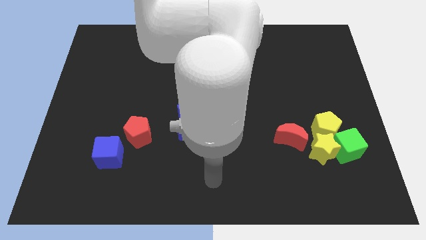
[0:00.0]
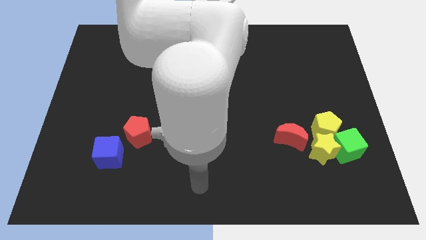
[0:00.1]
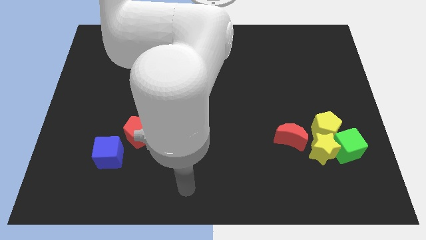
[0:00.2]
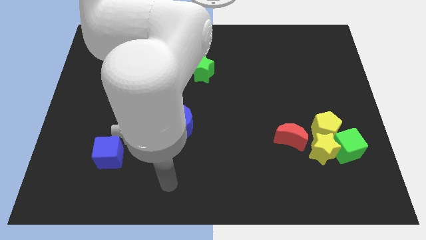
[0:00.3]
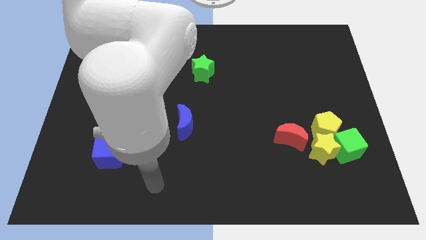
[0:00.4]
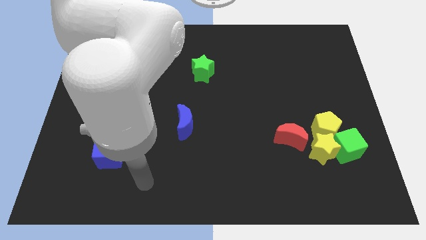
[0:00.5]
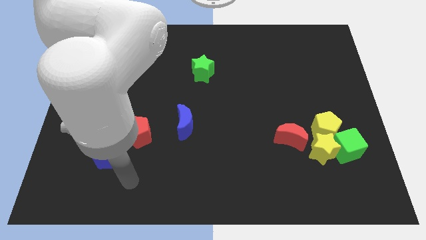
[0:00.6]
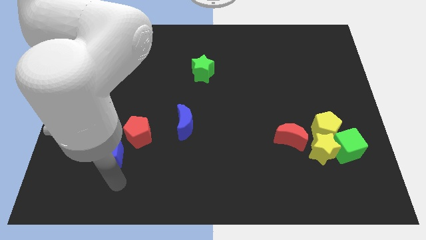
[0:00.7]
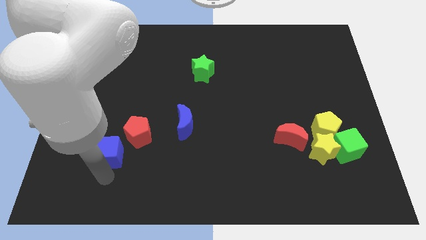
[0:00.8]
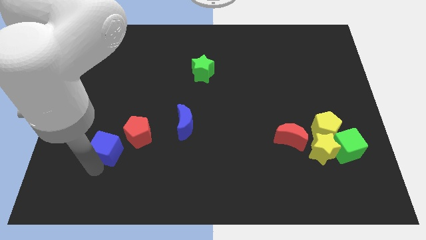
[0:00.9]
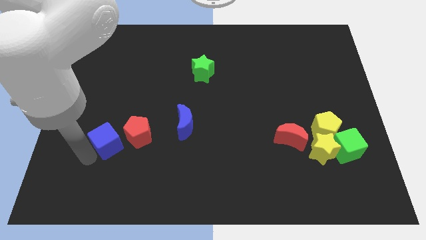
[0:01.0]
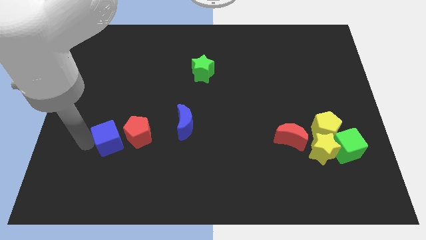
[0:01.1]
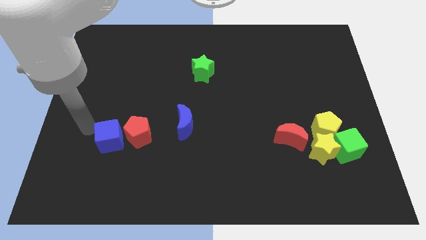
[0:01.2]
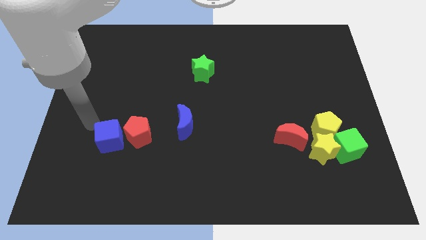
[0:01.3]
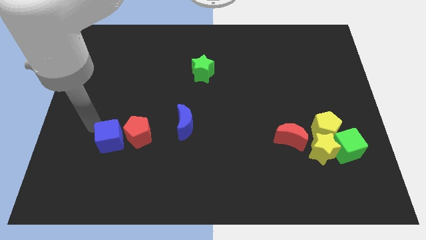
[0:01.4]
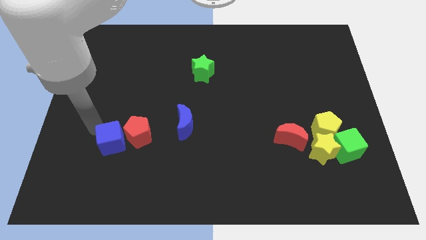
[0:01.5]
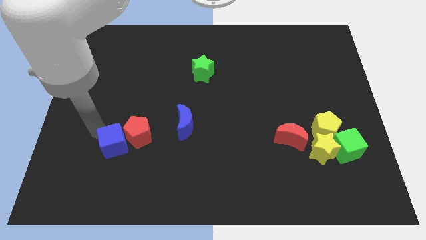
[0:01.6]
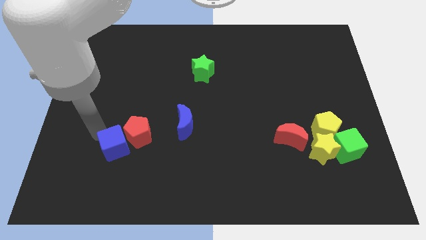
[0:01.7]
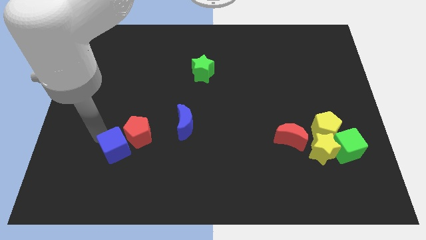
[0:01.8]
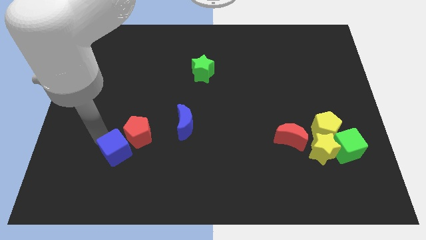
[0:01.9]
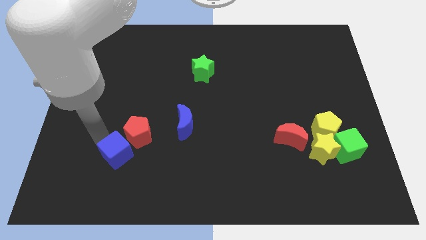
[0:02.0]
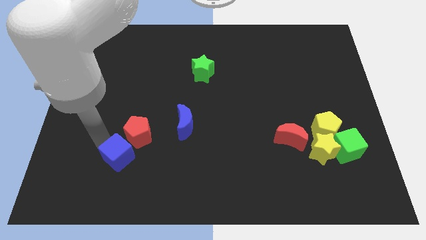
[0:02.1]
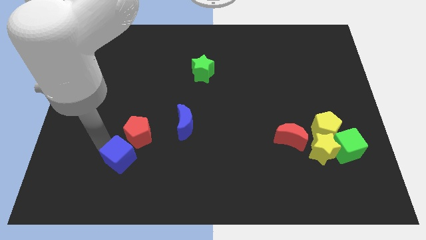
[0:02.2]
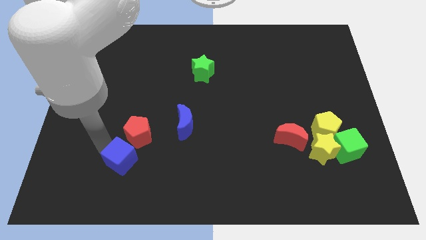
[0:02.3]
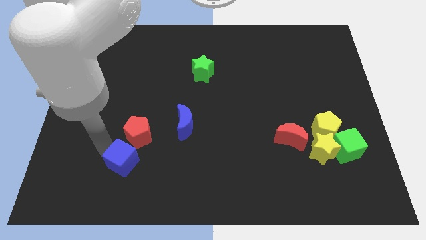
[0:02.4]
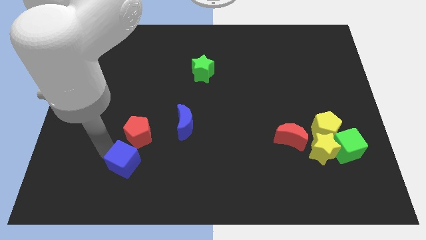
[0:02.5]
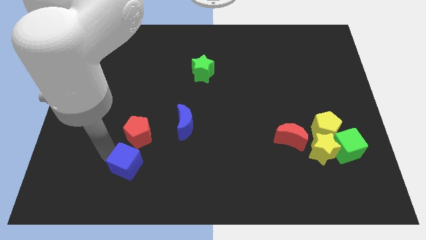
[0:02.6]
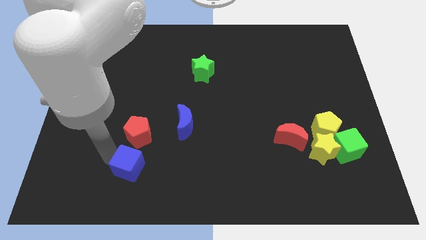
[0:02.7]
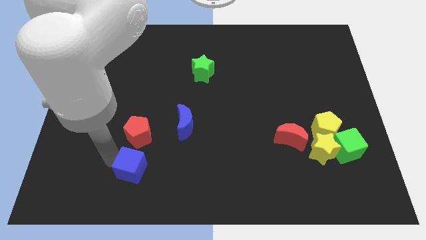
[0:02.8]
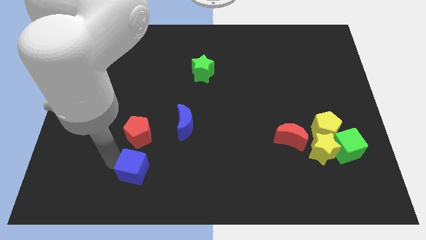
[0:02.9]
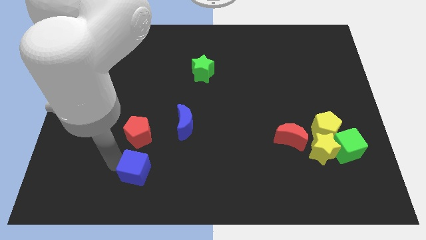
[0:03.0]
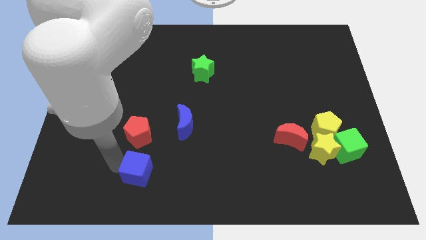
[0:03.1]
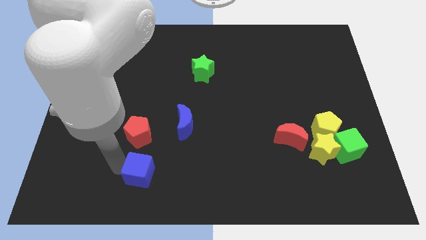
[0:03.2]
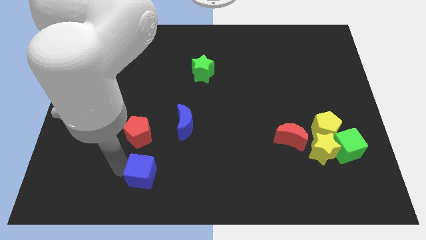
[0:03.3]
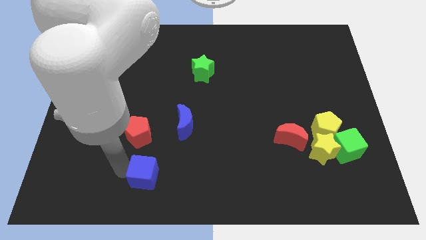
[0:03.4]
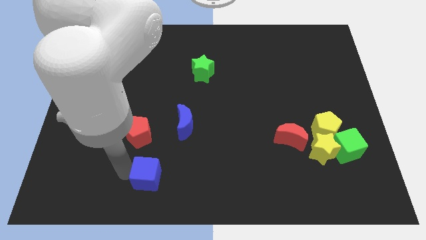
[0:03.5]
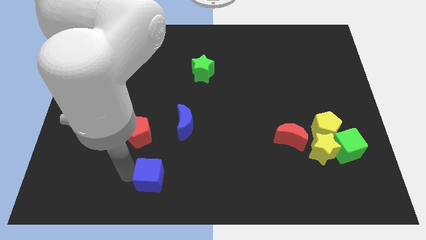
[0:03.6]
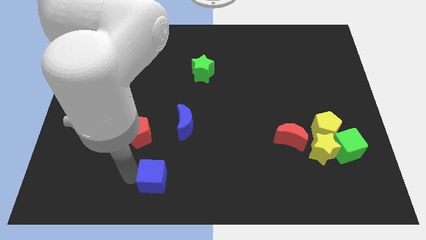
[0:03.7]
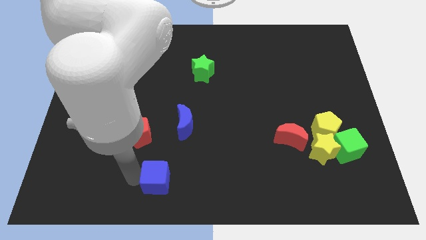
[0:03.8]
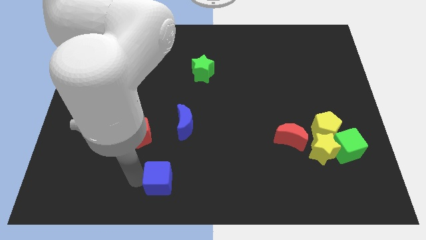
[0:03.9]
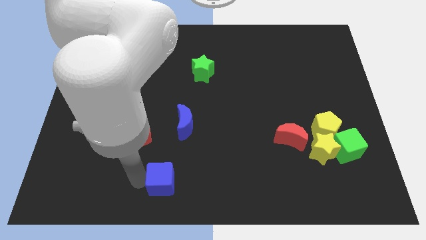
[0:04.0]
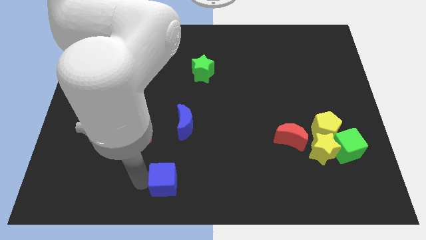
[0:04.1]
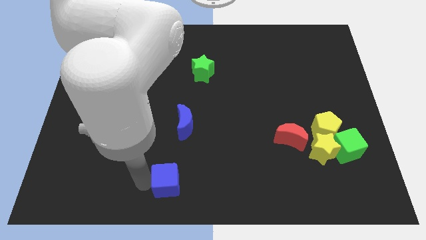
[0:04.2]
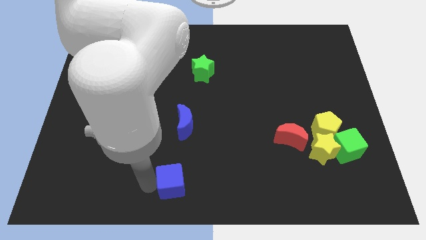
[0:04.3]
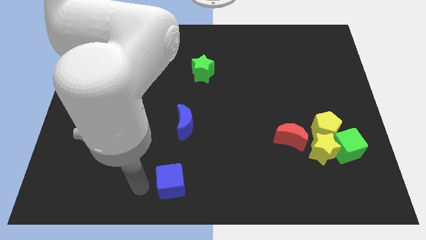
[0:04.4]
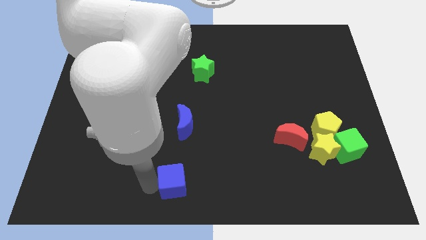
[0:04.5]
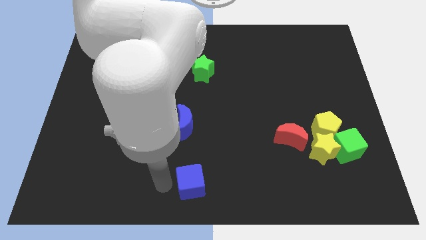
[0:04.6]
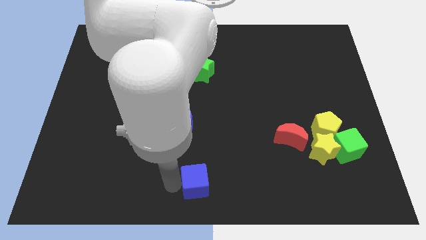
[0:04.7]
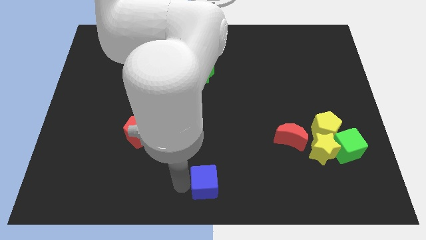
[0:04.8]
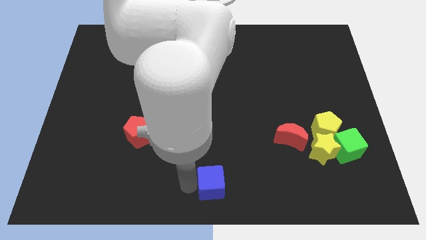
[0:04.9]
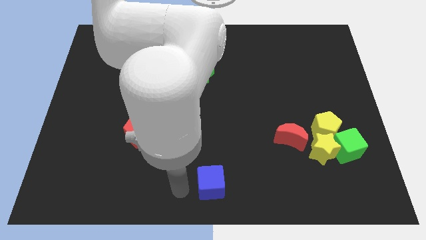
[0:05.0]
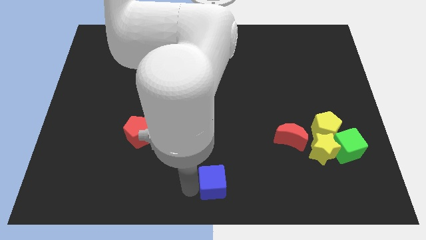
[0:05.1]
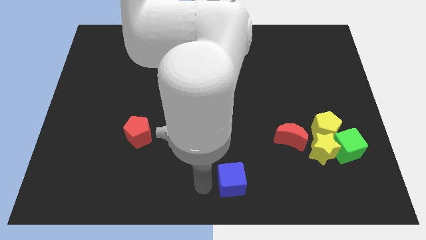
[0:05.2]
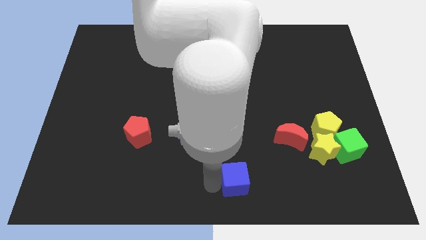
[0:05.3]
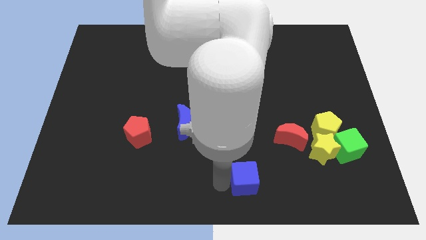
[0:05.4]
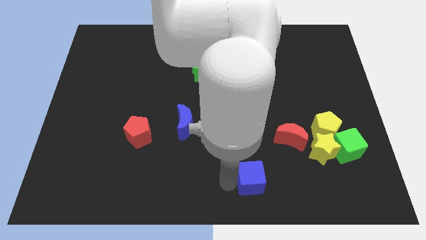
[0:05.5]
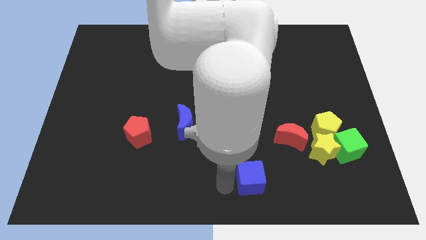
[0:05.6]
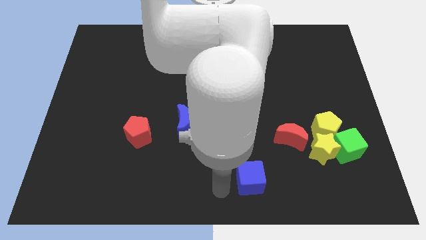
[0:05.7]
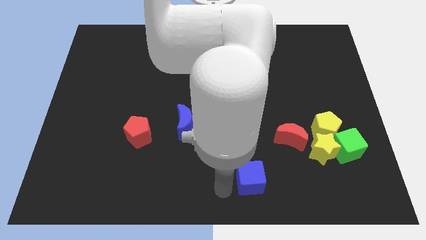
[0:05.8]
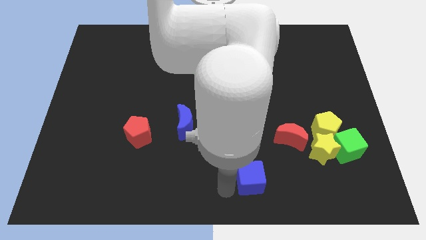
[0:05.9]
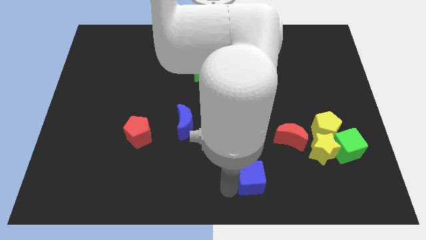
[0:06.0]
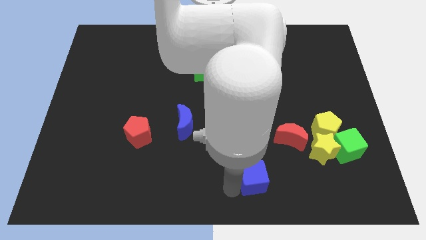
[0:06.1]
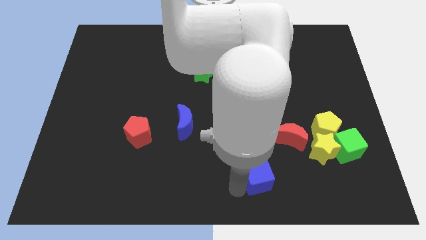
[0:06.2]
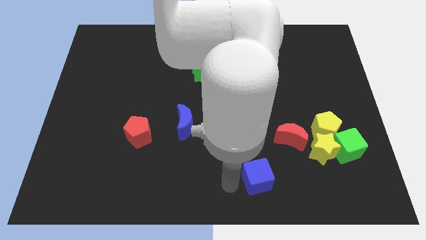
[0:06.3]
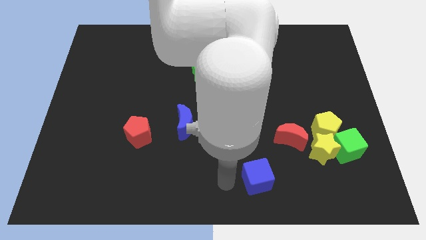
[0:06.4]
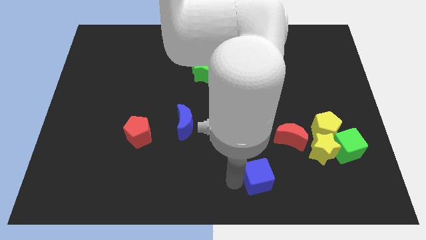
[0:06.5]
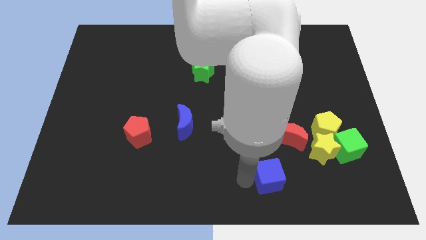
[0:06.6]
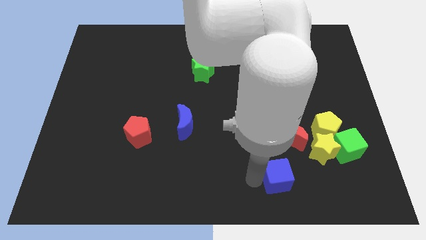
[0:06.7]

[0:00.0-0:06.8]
put the blue cube to the bottom left of the yellow star

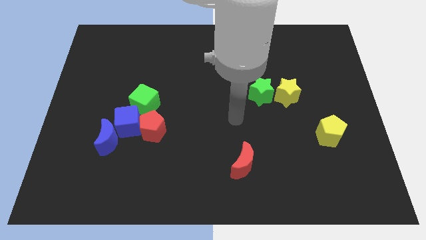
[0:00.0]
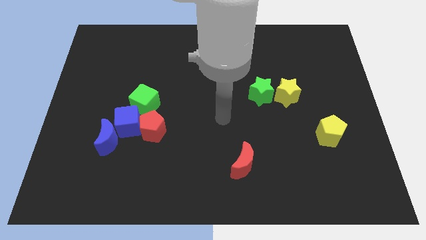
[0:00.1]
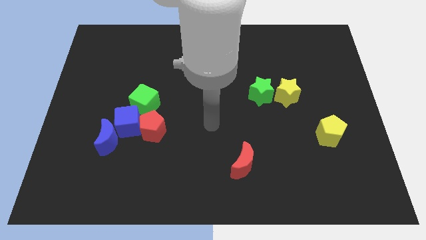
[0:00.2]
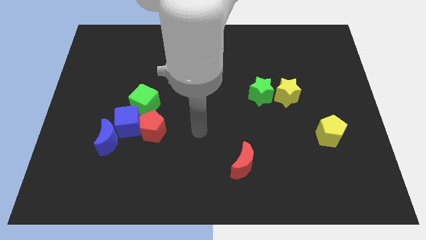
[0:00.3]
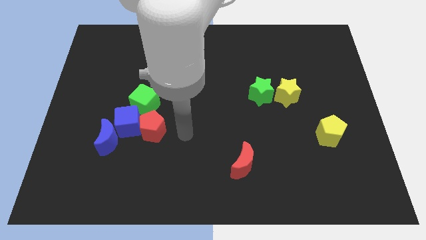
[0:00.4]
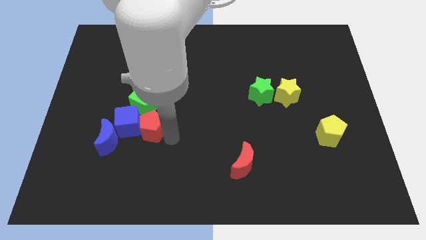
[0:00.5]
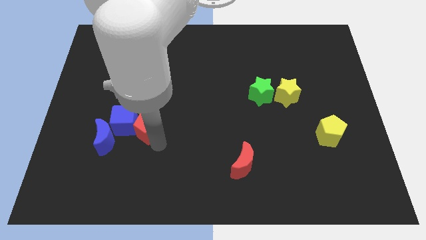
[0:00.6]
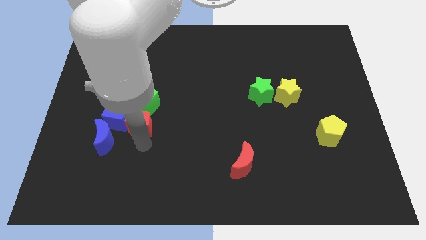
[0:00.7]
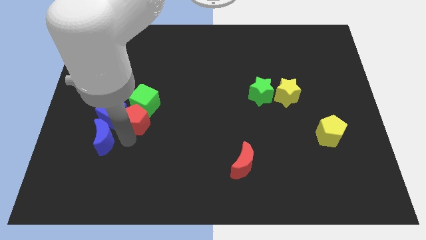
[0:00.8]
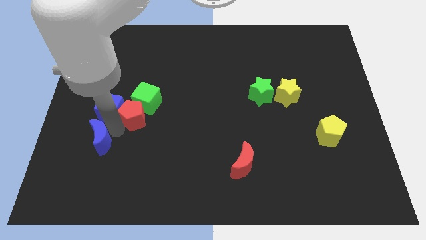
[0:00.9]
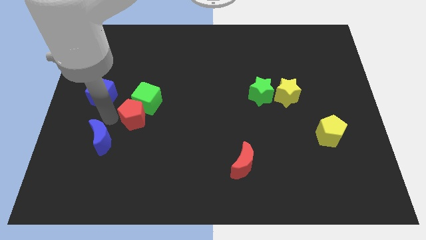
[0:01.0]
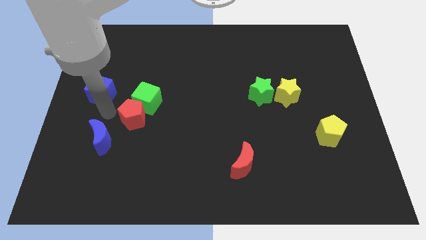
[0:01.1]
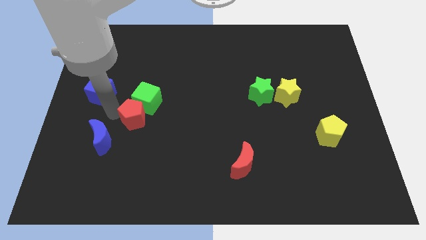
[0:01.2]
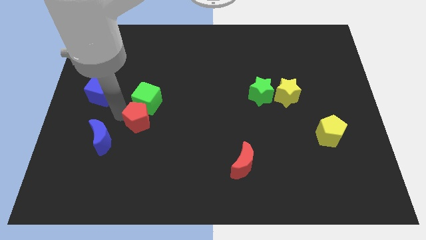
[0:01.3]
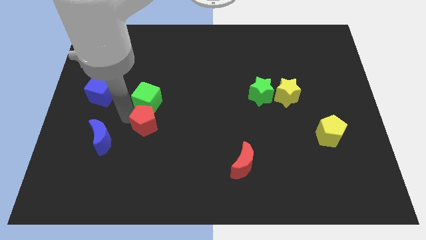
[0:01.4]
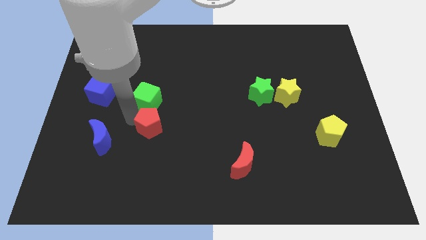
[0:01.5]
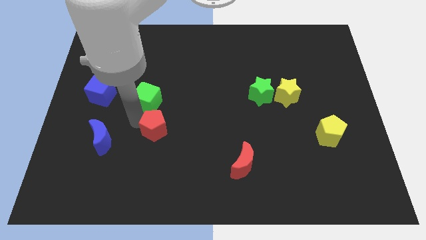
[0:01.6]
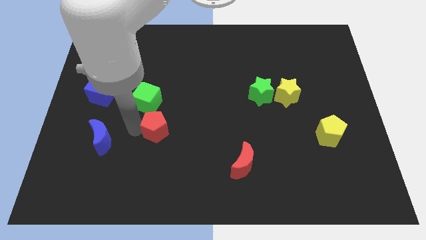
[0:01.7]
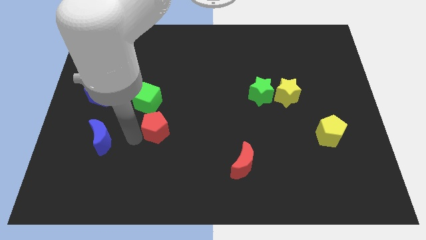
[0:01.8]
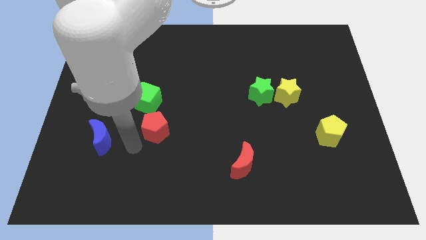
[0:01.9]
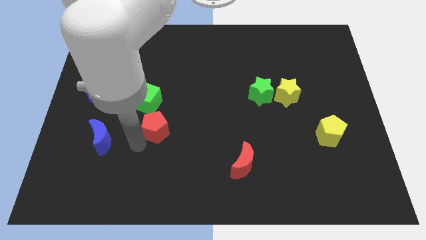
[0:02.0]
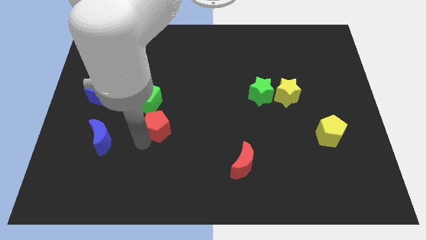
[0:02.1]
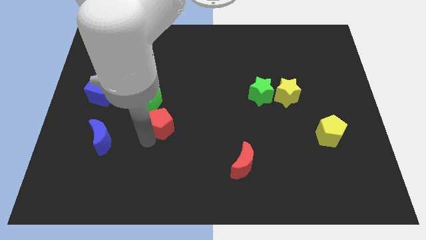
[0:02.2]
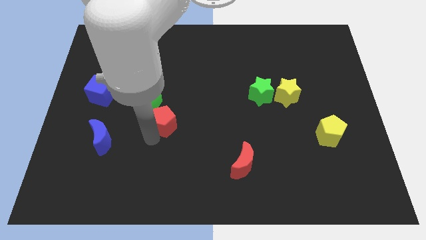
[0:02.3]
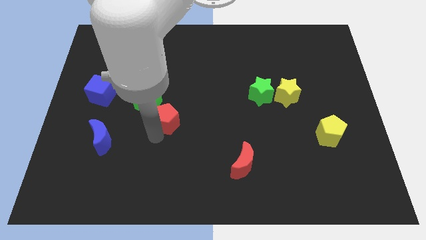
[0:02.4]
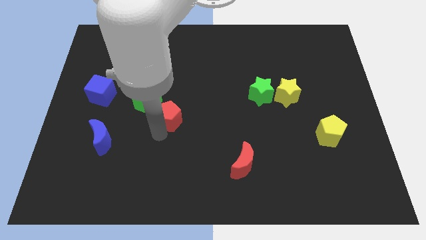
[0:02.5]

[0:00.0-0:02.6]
put the red pentagon to the right of the green cube
